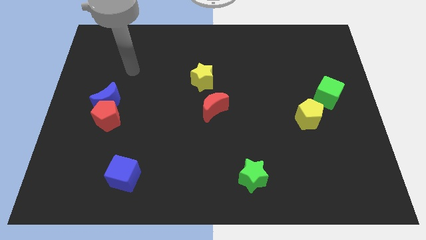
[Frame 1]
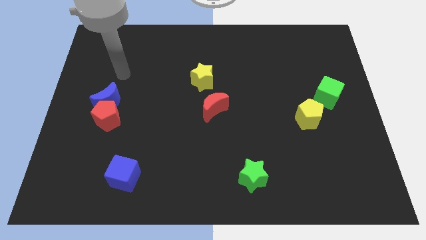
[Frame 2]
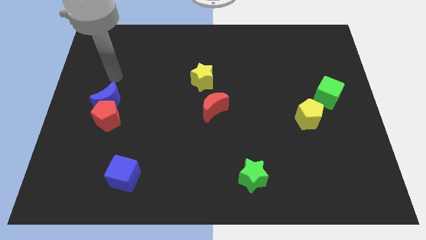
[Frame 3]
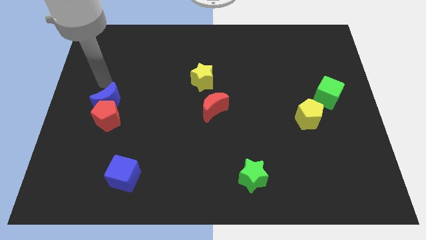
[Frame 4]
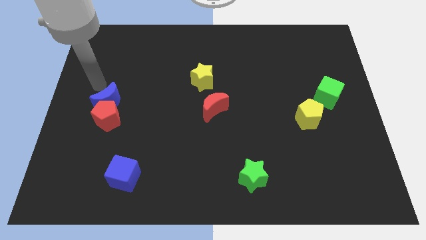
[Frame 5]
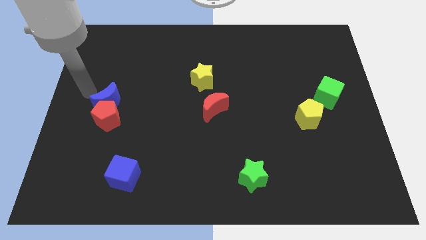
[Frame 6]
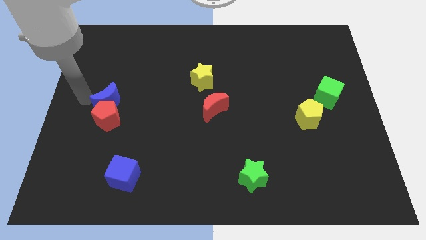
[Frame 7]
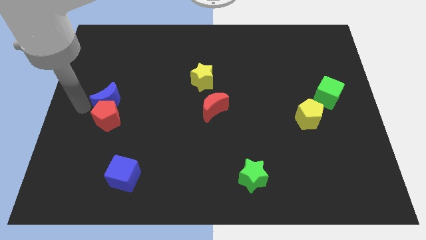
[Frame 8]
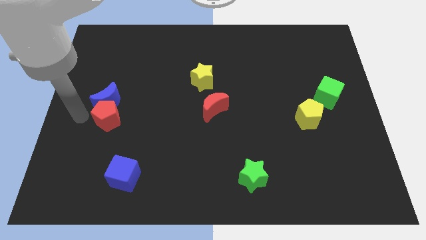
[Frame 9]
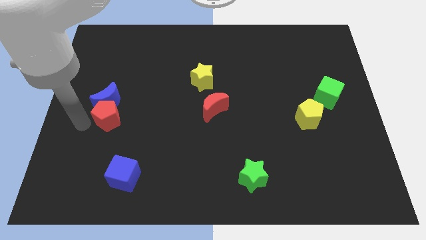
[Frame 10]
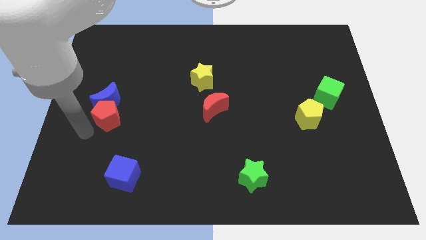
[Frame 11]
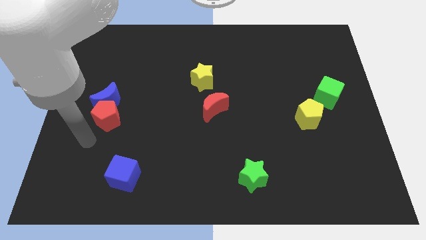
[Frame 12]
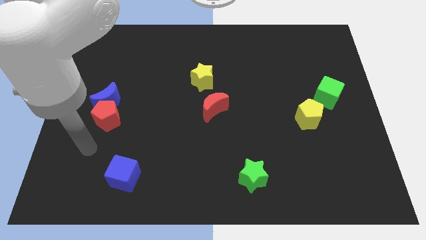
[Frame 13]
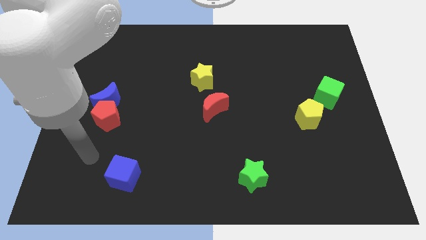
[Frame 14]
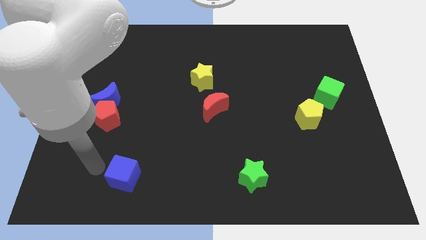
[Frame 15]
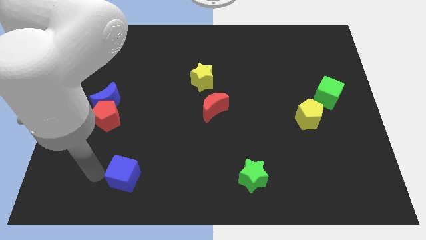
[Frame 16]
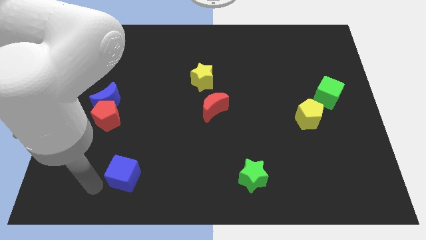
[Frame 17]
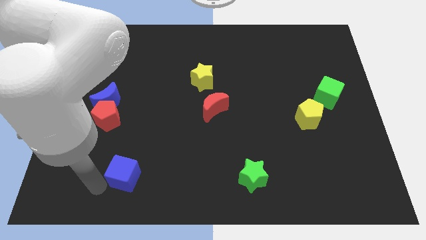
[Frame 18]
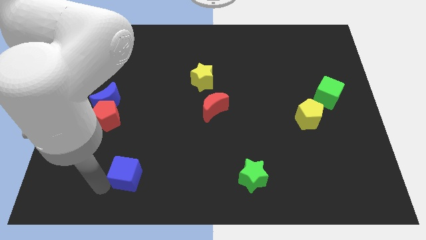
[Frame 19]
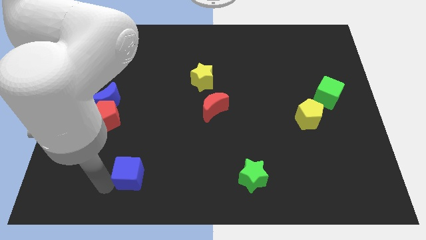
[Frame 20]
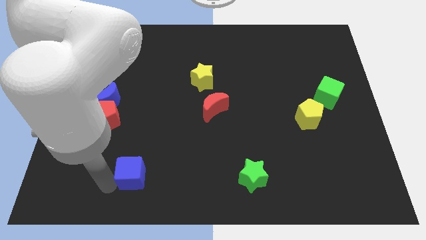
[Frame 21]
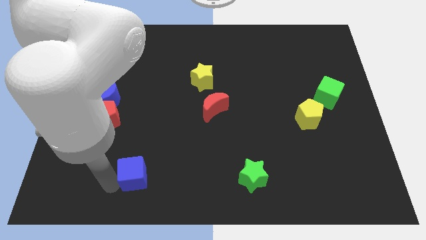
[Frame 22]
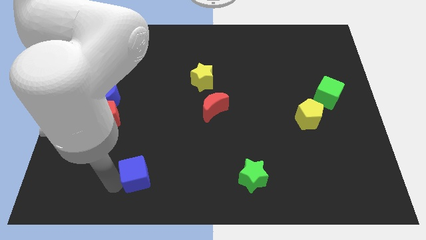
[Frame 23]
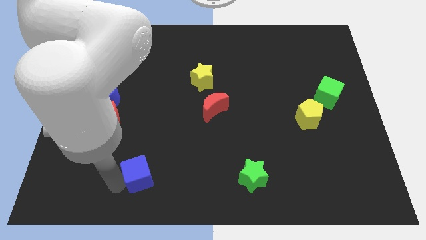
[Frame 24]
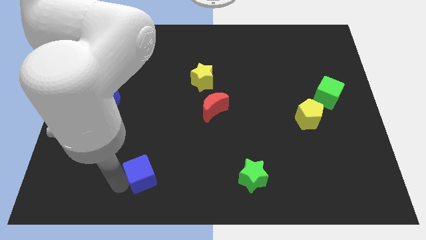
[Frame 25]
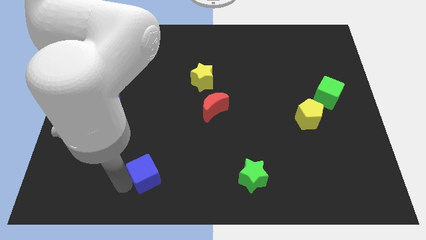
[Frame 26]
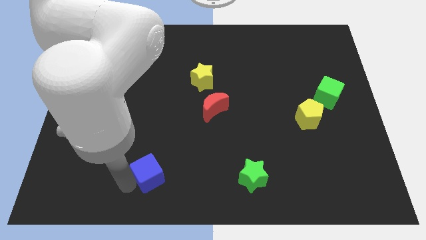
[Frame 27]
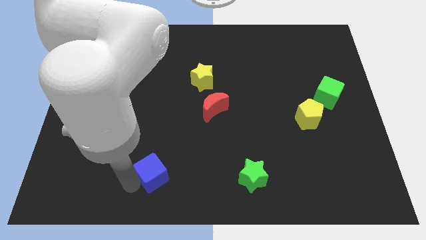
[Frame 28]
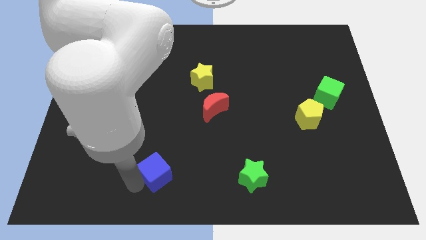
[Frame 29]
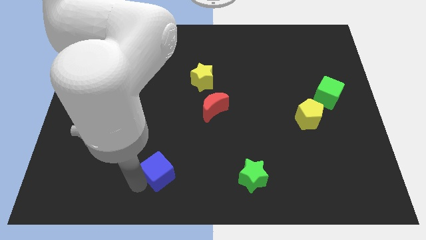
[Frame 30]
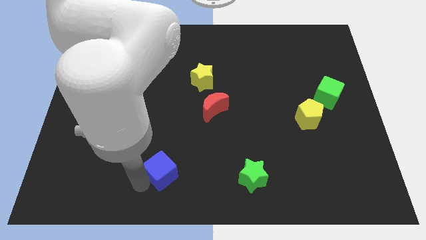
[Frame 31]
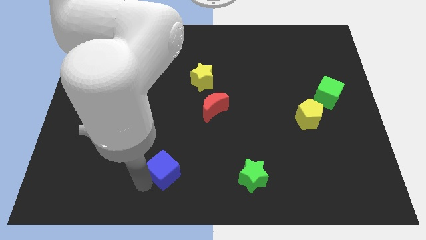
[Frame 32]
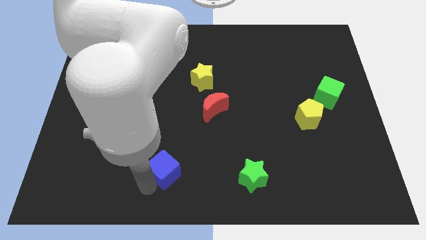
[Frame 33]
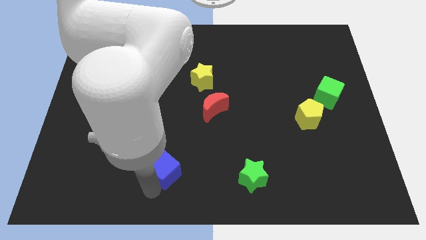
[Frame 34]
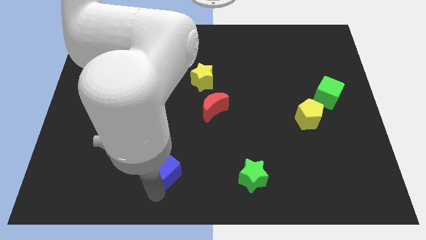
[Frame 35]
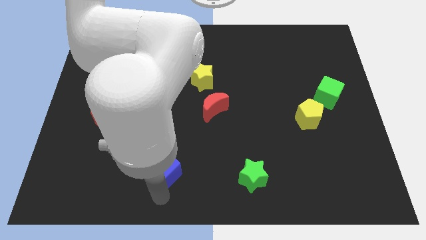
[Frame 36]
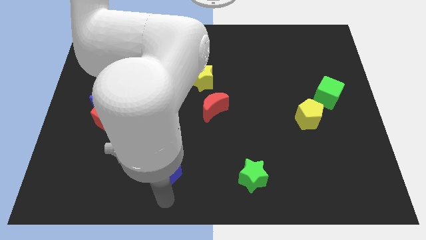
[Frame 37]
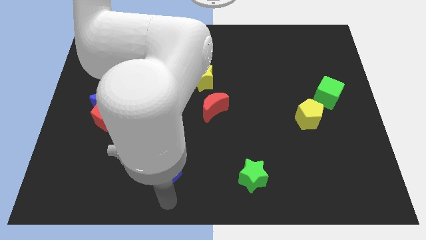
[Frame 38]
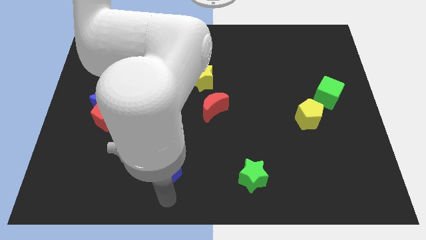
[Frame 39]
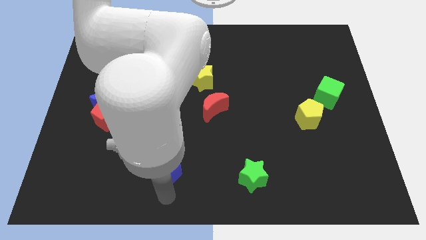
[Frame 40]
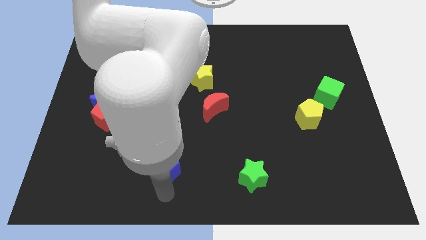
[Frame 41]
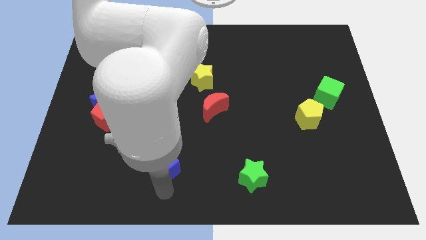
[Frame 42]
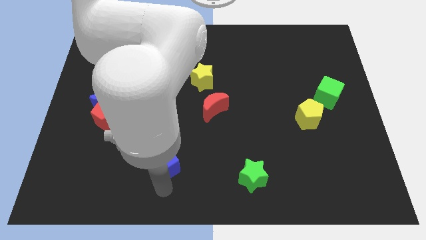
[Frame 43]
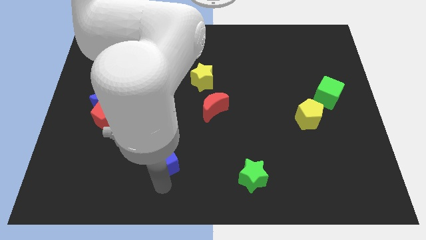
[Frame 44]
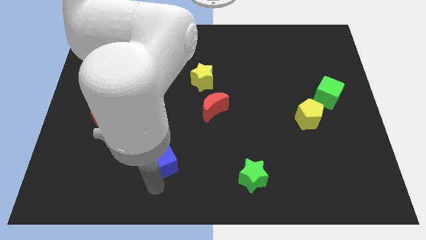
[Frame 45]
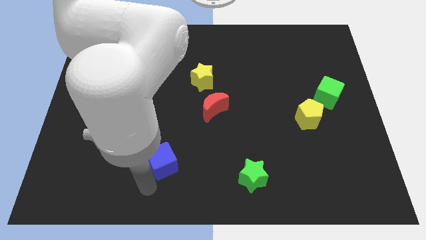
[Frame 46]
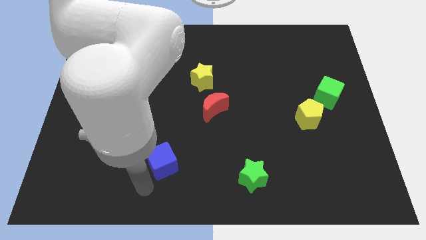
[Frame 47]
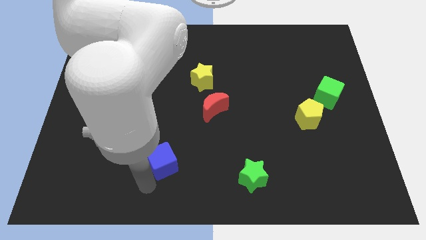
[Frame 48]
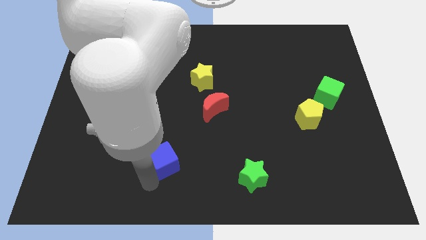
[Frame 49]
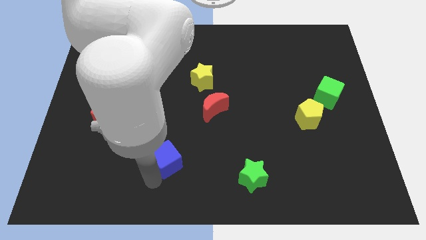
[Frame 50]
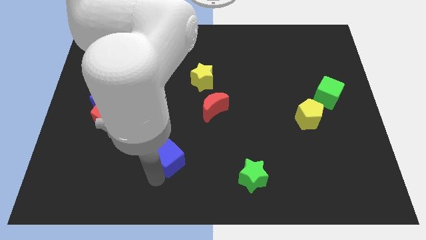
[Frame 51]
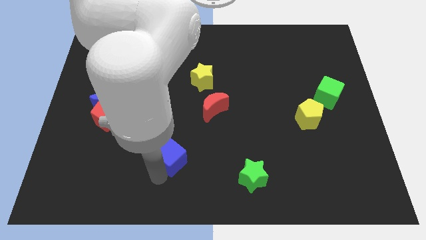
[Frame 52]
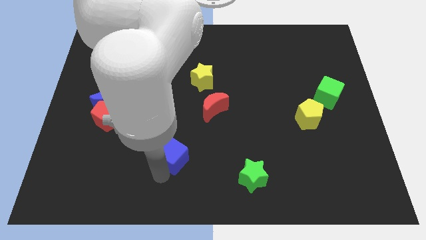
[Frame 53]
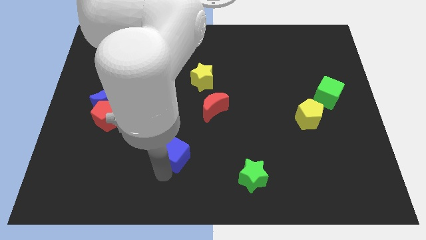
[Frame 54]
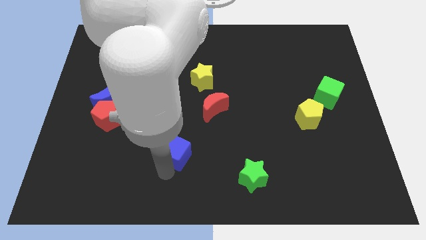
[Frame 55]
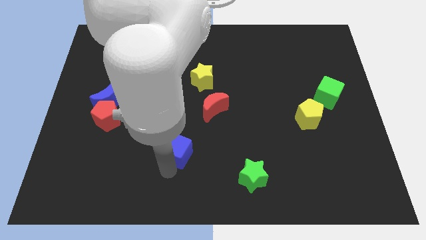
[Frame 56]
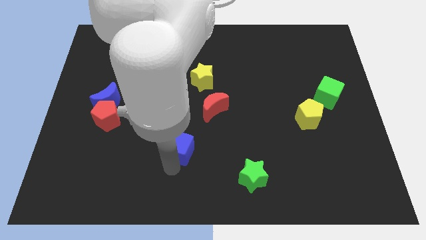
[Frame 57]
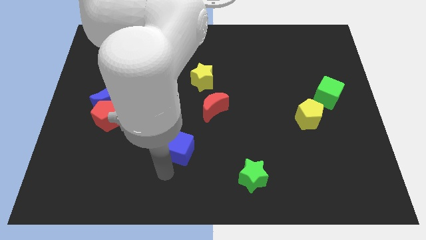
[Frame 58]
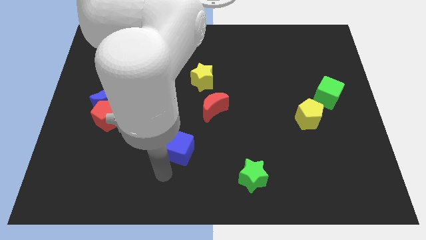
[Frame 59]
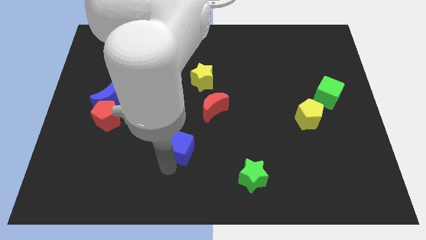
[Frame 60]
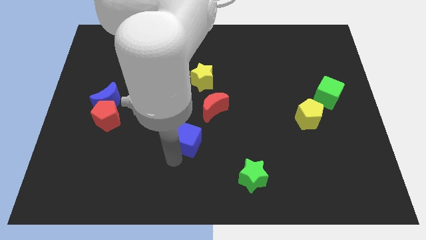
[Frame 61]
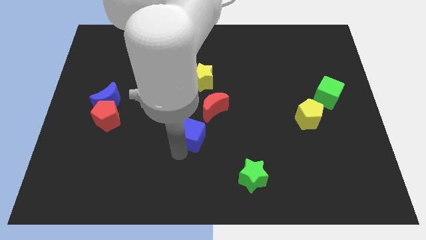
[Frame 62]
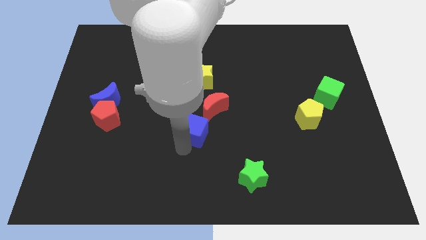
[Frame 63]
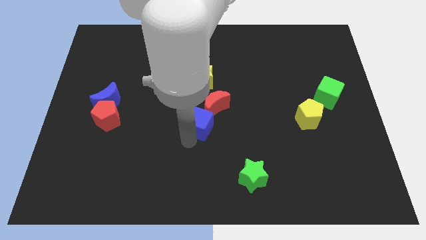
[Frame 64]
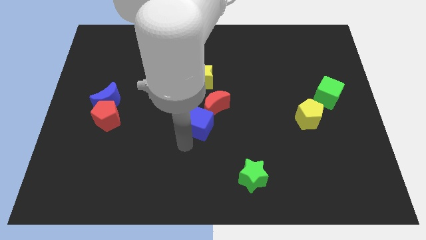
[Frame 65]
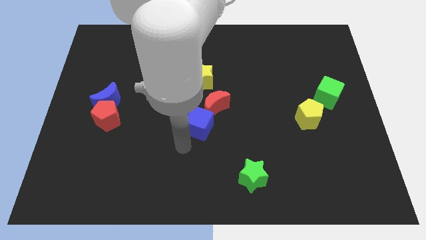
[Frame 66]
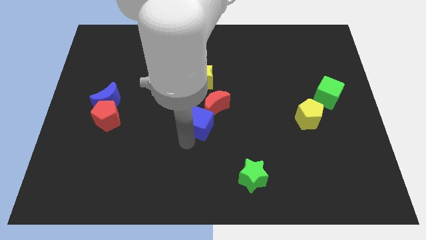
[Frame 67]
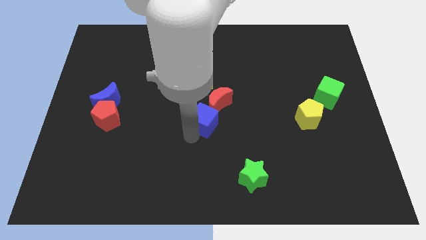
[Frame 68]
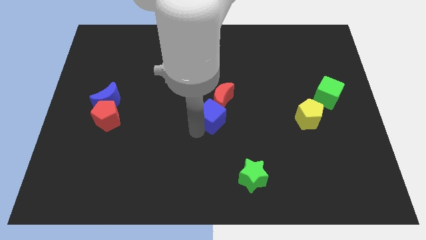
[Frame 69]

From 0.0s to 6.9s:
move the blue cube next to the red moon
